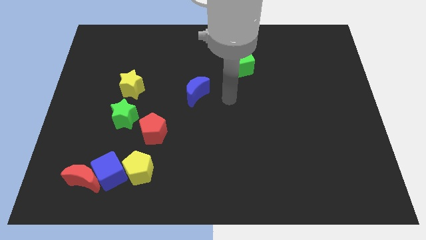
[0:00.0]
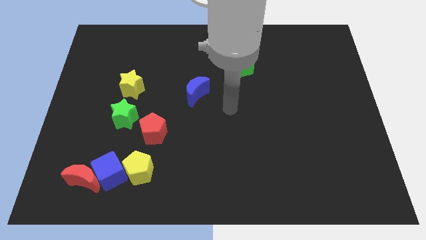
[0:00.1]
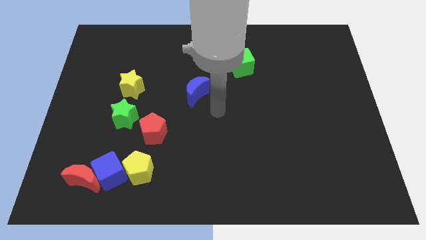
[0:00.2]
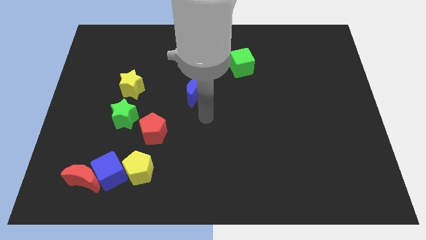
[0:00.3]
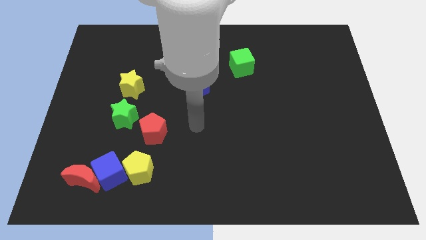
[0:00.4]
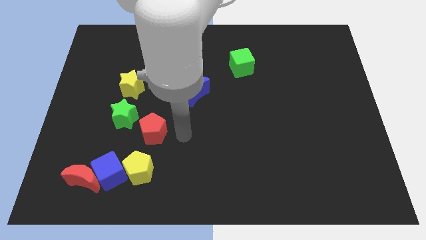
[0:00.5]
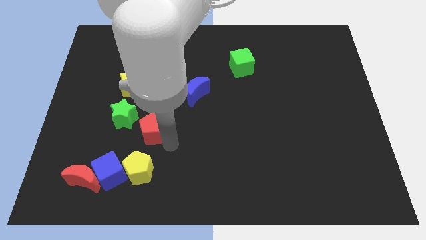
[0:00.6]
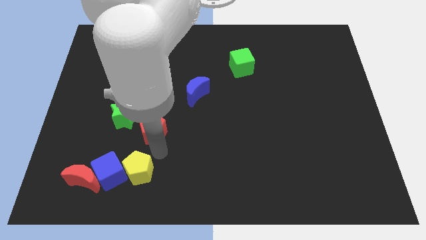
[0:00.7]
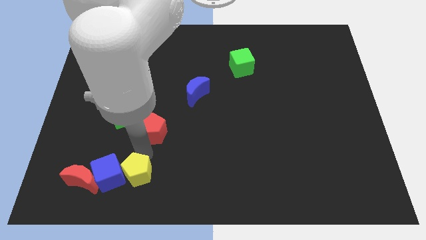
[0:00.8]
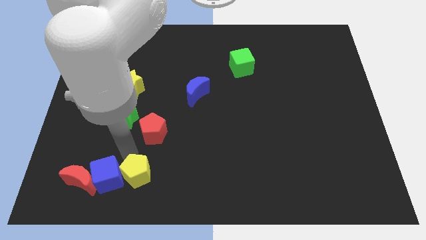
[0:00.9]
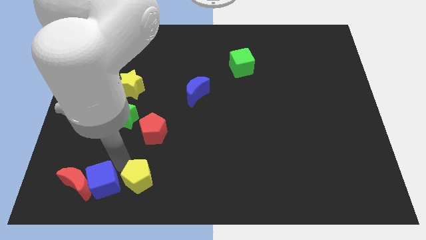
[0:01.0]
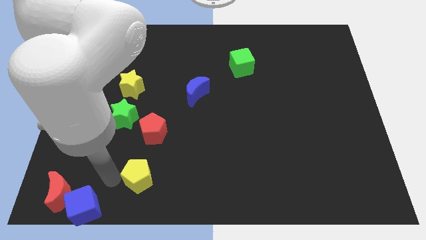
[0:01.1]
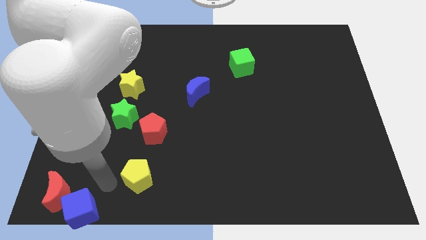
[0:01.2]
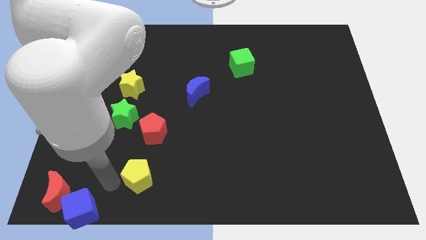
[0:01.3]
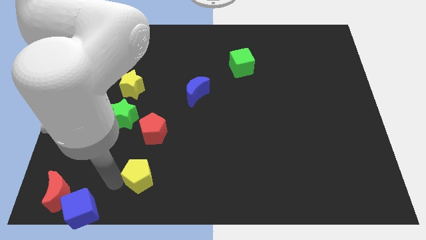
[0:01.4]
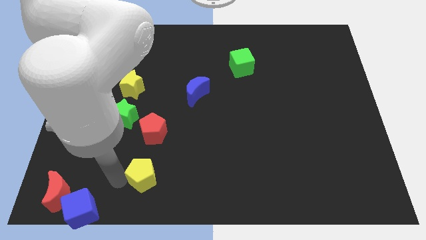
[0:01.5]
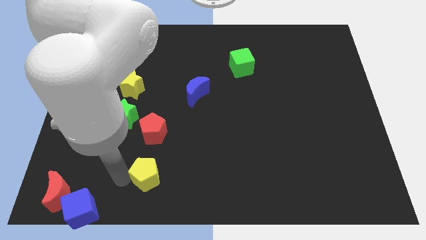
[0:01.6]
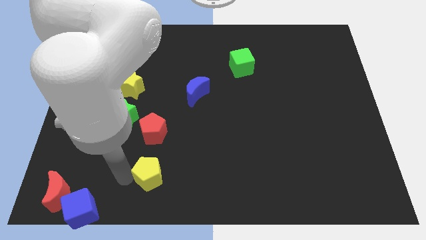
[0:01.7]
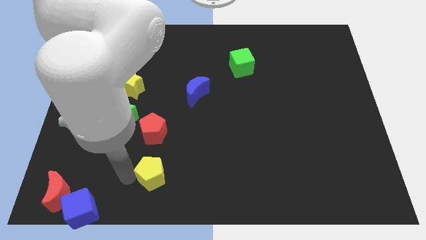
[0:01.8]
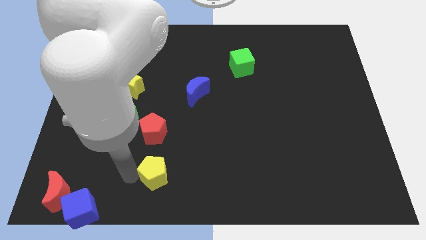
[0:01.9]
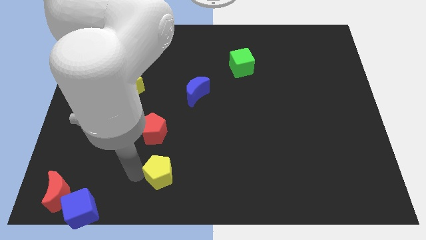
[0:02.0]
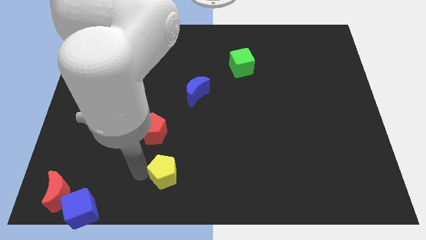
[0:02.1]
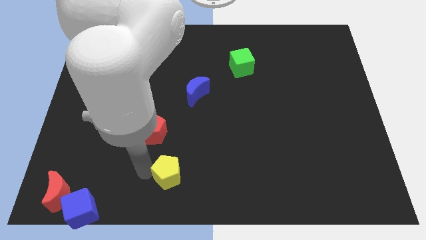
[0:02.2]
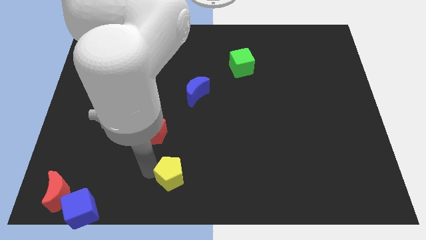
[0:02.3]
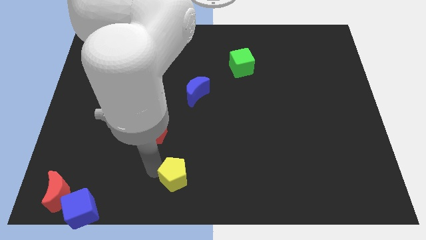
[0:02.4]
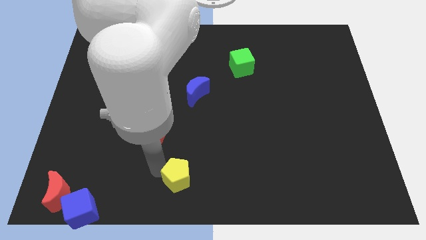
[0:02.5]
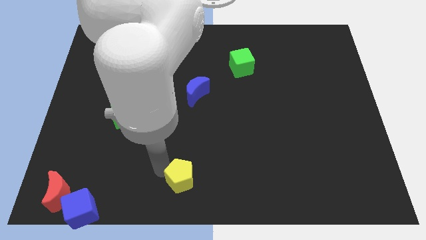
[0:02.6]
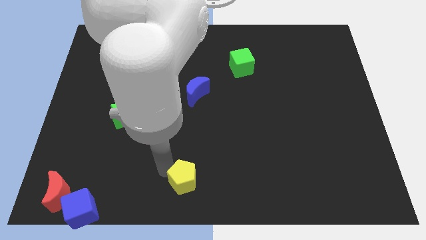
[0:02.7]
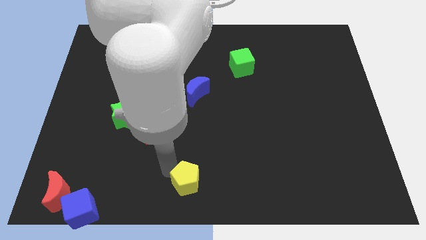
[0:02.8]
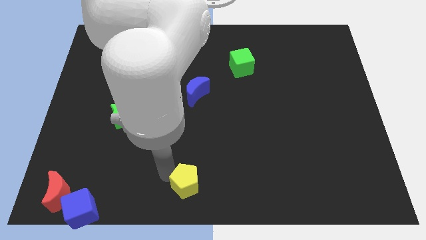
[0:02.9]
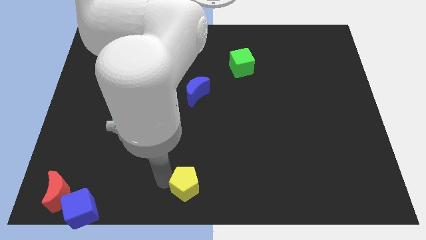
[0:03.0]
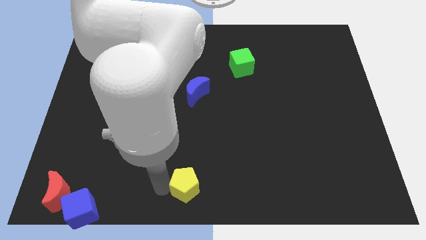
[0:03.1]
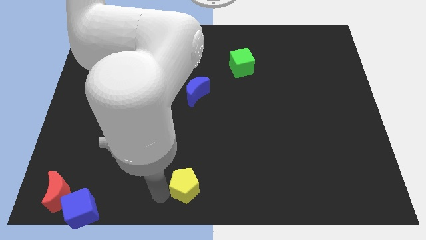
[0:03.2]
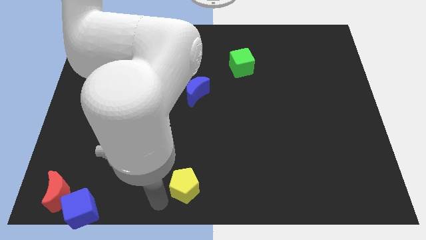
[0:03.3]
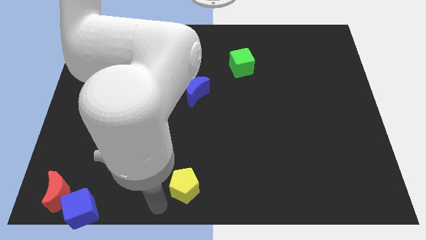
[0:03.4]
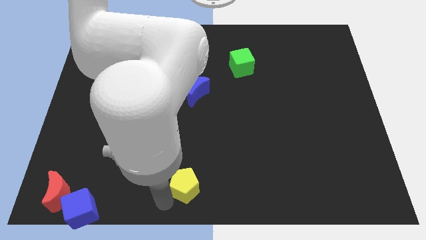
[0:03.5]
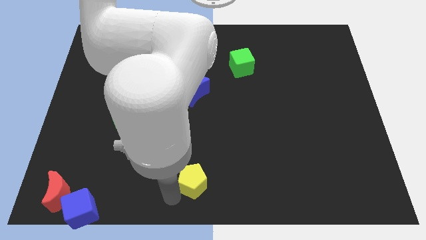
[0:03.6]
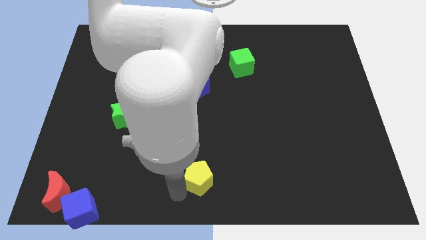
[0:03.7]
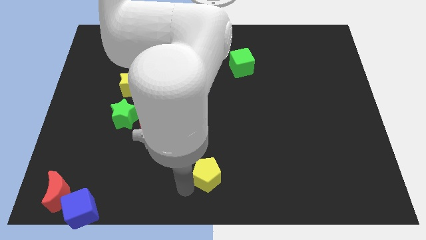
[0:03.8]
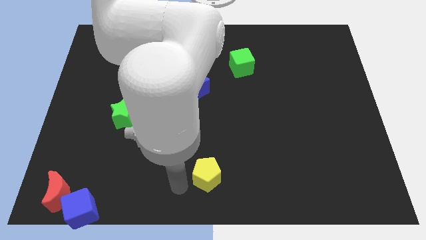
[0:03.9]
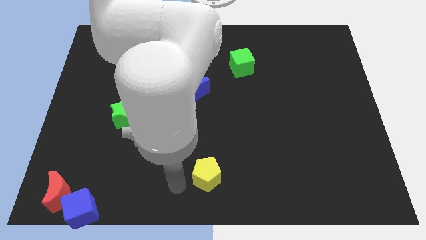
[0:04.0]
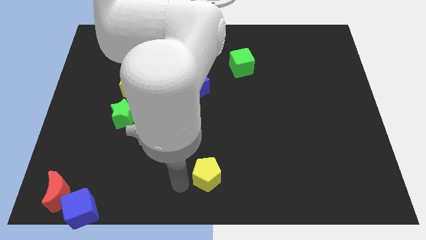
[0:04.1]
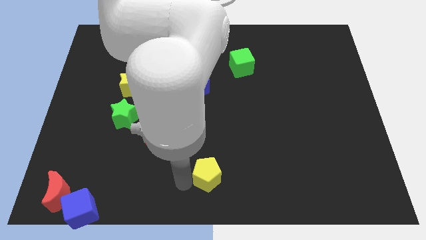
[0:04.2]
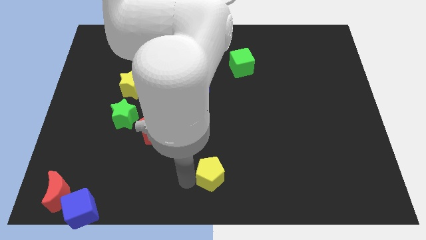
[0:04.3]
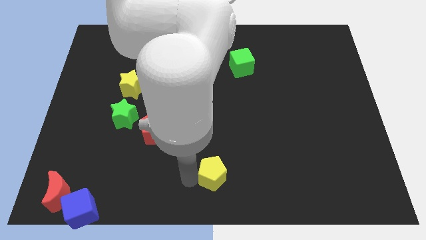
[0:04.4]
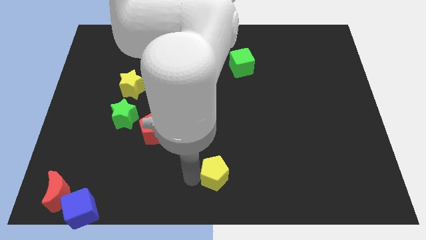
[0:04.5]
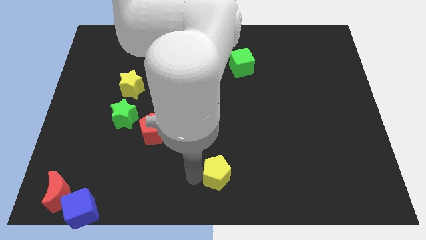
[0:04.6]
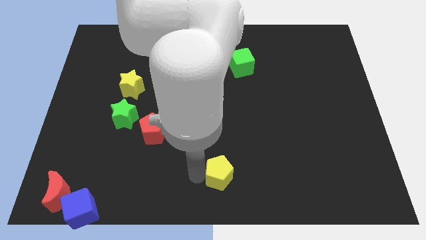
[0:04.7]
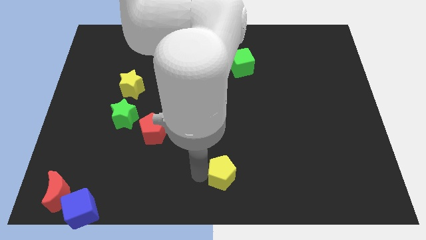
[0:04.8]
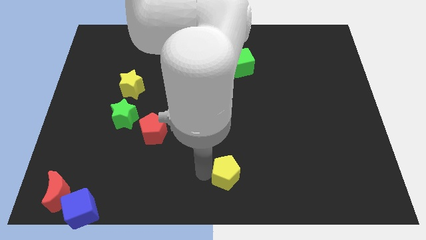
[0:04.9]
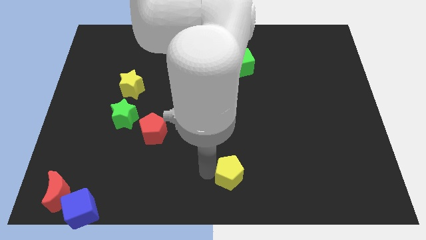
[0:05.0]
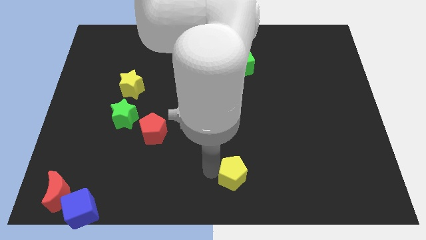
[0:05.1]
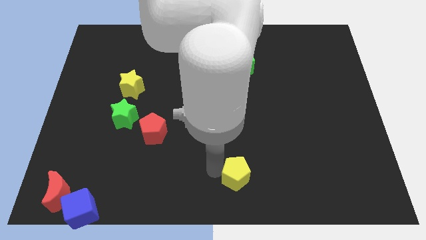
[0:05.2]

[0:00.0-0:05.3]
move the yellow pentagon to the right

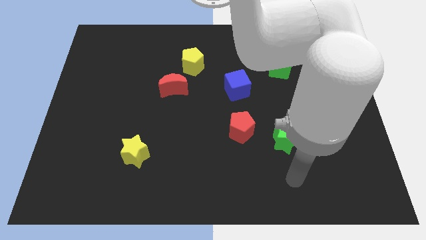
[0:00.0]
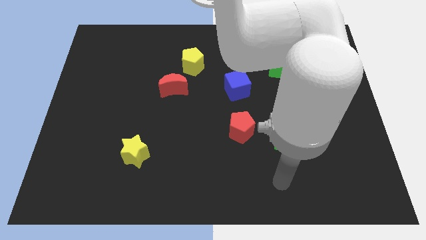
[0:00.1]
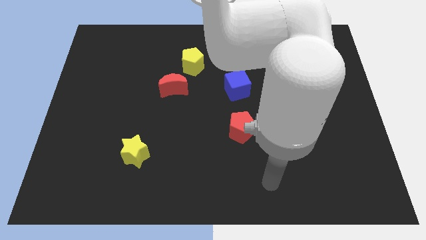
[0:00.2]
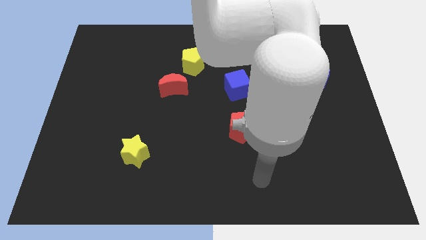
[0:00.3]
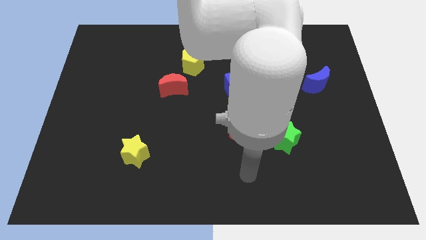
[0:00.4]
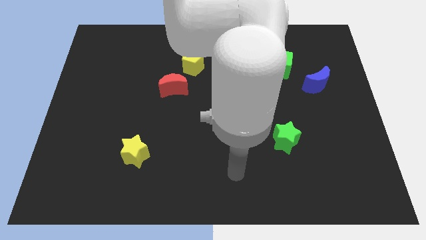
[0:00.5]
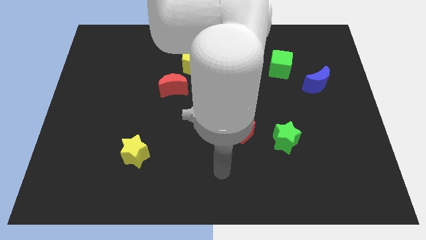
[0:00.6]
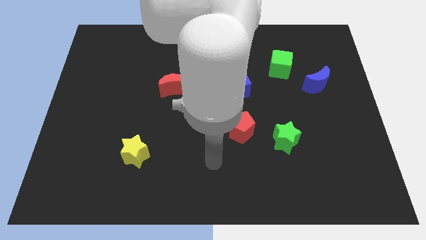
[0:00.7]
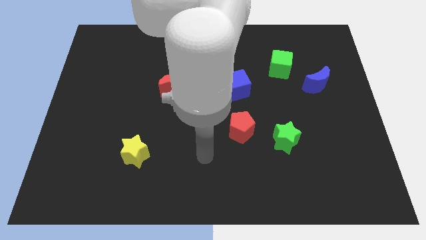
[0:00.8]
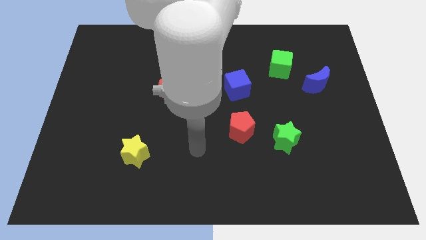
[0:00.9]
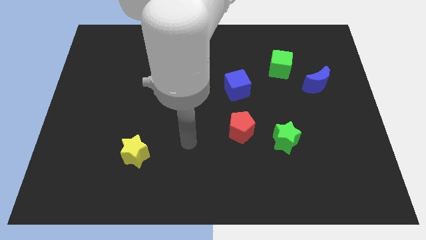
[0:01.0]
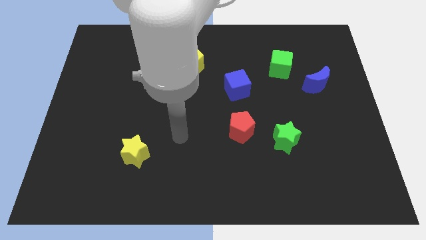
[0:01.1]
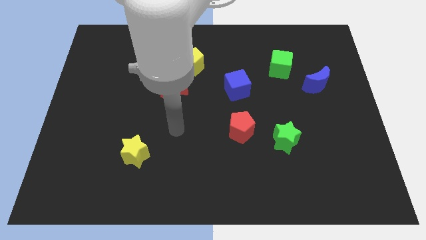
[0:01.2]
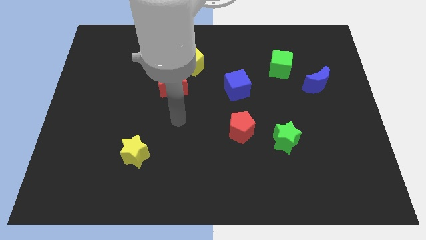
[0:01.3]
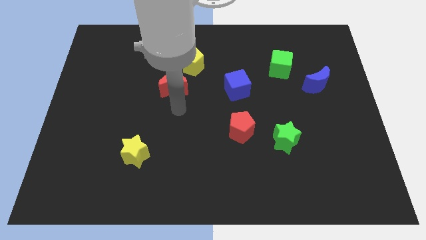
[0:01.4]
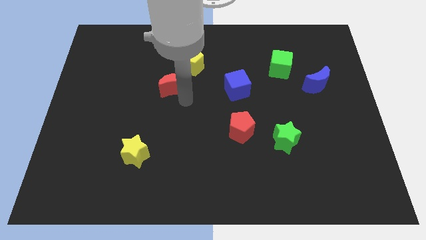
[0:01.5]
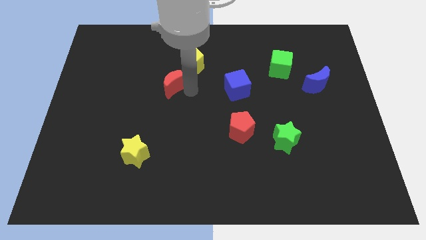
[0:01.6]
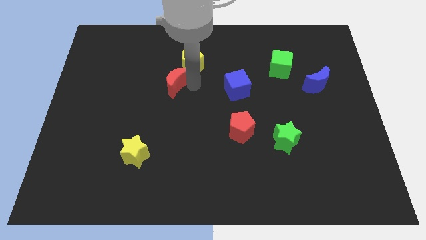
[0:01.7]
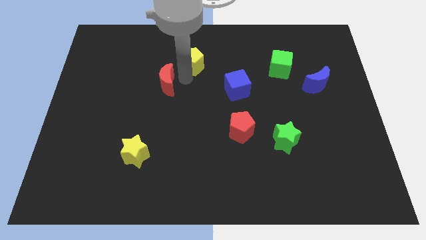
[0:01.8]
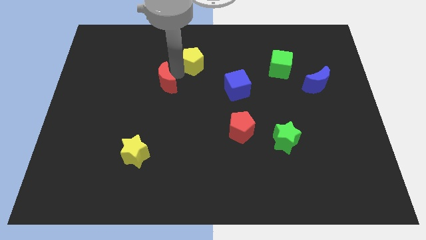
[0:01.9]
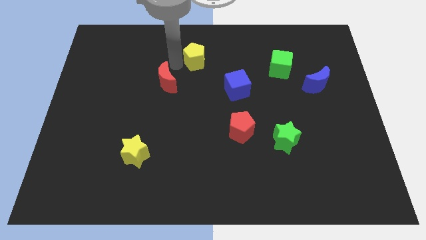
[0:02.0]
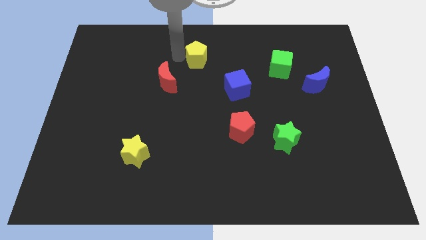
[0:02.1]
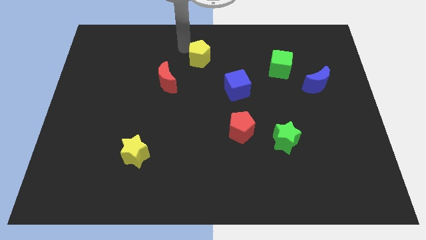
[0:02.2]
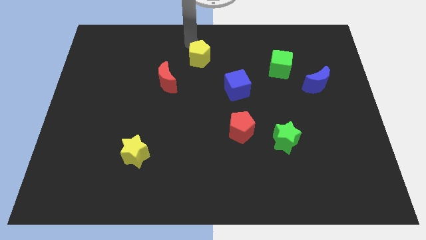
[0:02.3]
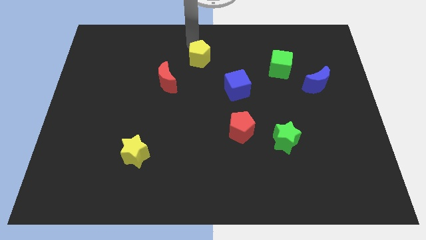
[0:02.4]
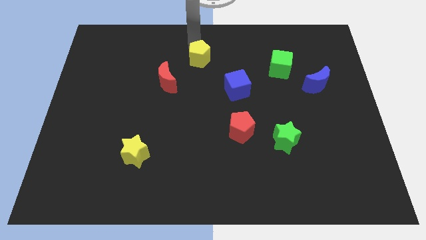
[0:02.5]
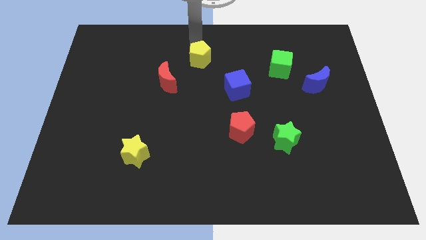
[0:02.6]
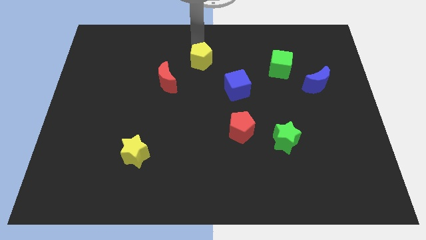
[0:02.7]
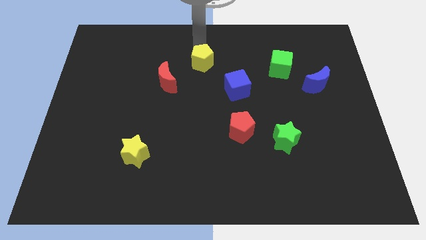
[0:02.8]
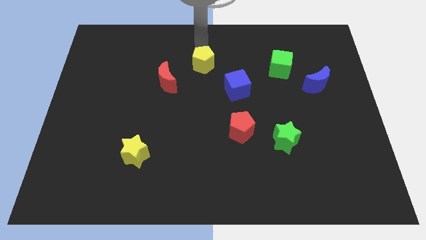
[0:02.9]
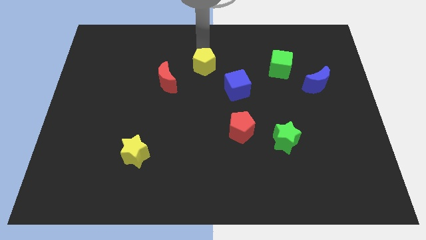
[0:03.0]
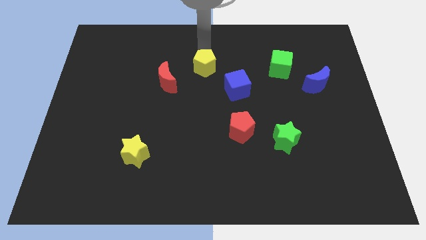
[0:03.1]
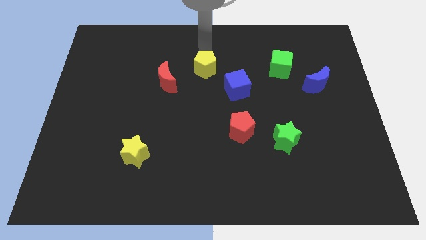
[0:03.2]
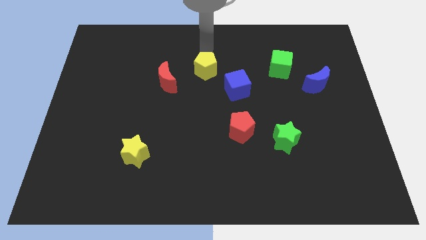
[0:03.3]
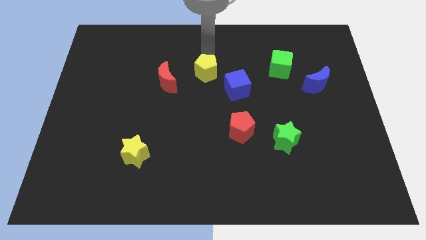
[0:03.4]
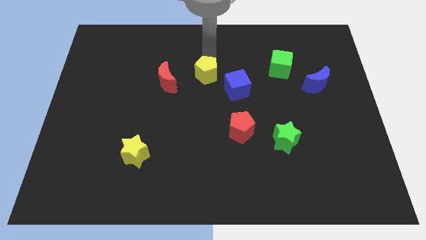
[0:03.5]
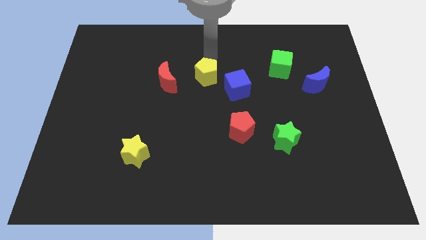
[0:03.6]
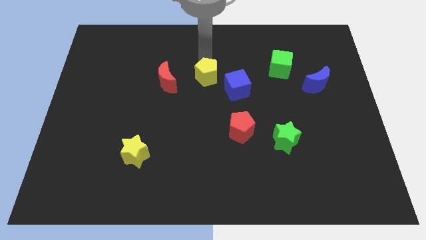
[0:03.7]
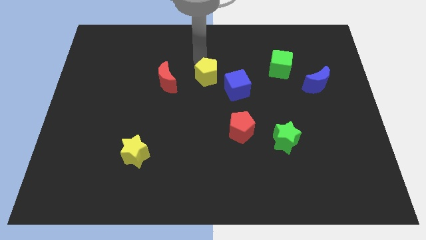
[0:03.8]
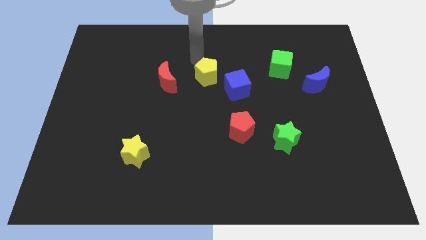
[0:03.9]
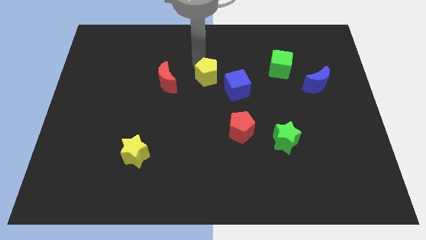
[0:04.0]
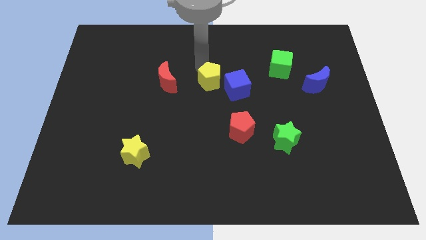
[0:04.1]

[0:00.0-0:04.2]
push the yellow pentagon a little bit downwards and to the right diagonally
